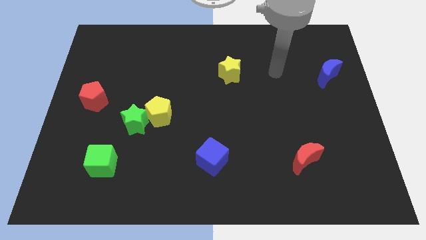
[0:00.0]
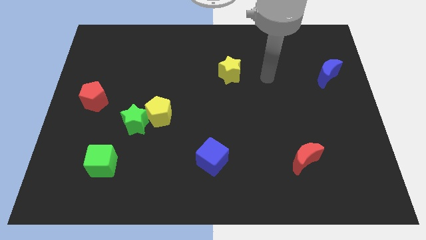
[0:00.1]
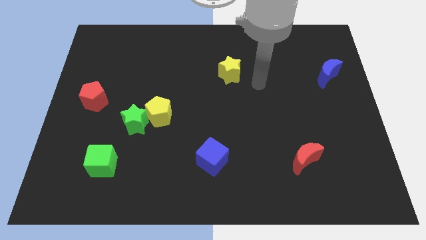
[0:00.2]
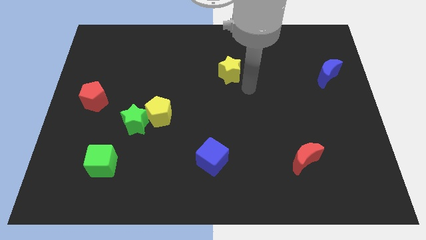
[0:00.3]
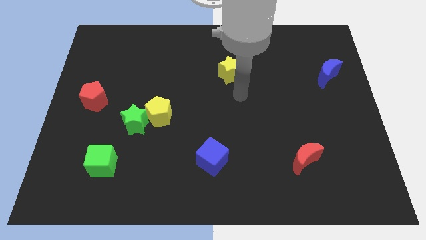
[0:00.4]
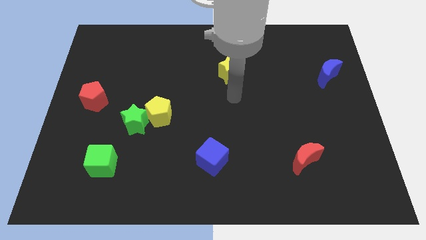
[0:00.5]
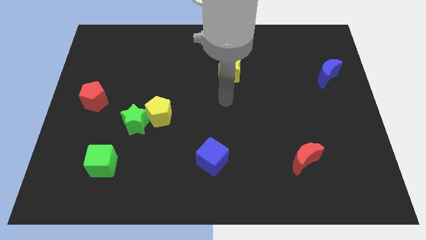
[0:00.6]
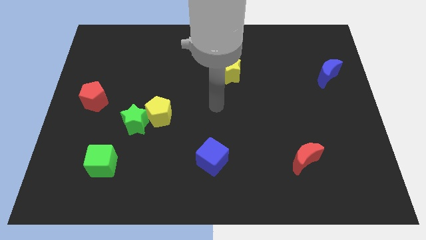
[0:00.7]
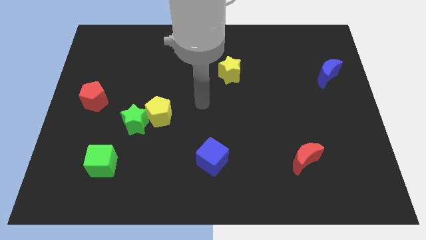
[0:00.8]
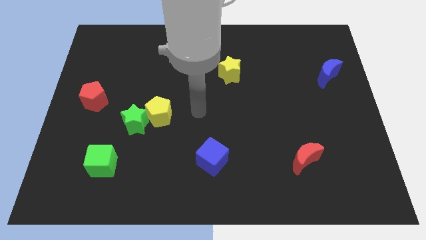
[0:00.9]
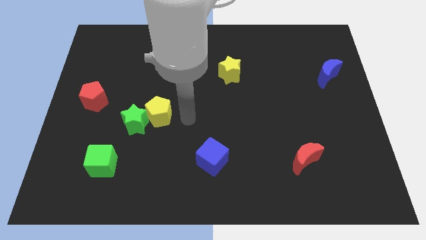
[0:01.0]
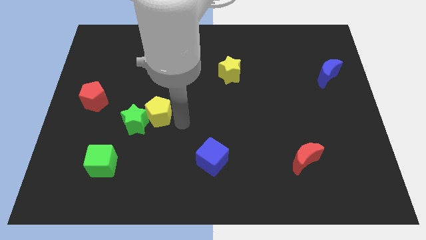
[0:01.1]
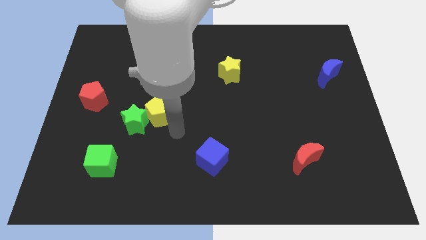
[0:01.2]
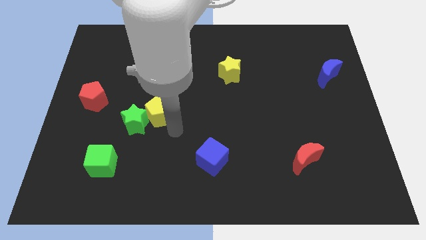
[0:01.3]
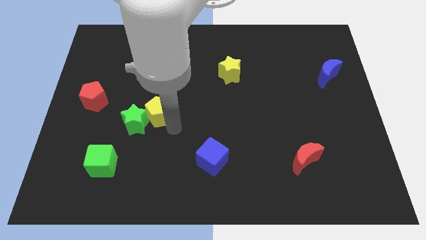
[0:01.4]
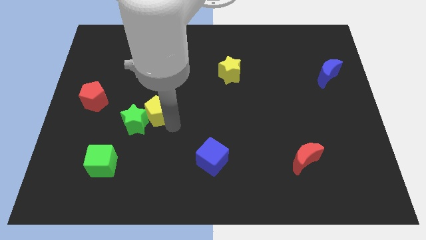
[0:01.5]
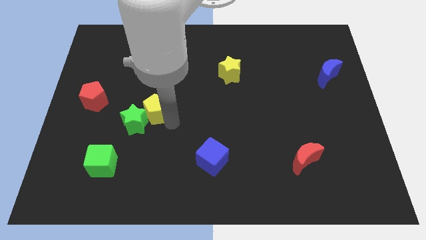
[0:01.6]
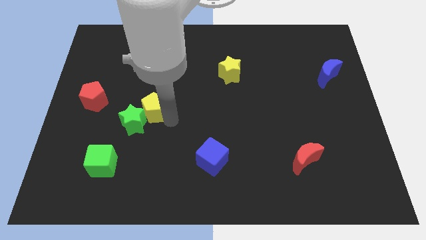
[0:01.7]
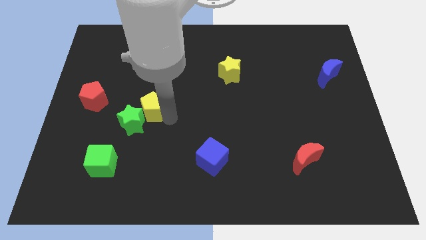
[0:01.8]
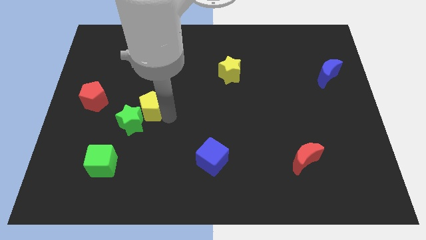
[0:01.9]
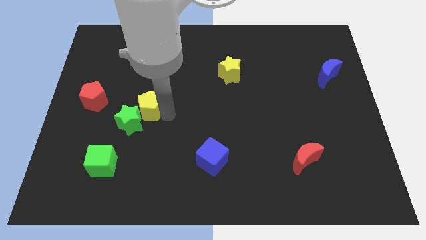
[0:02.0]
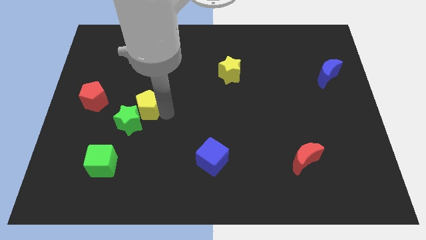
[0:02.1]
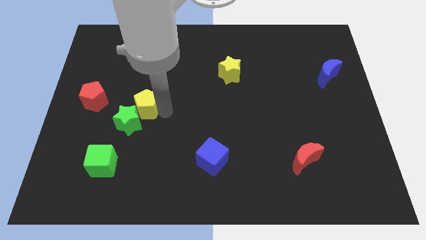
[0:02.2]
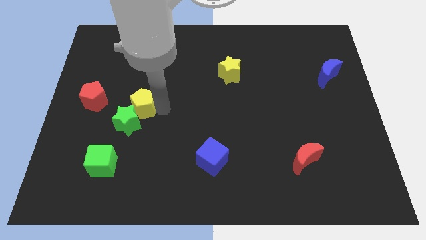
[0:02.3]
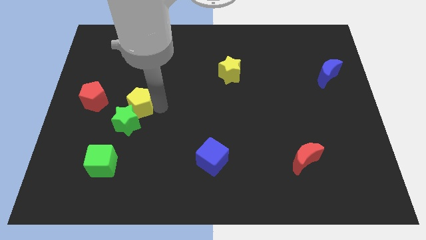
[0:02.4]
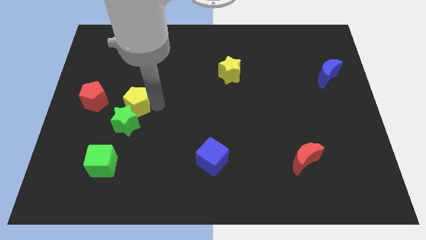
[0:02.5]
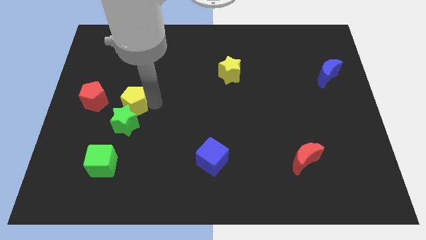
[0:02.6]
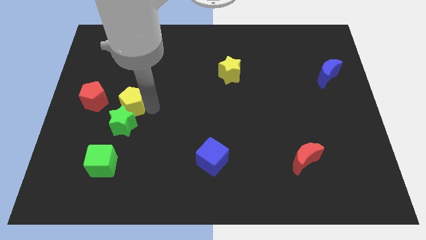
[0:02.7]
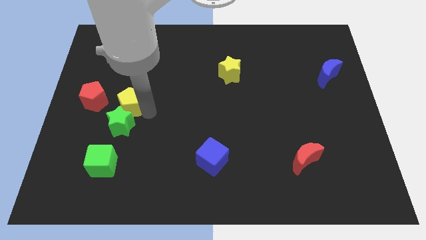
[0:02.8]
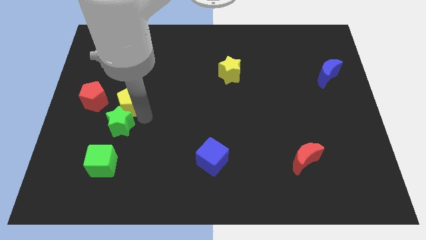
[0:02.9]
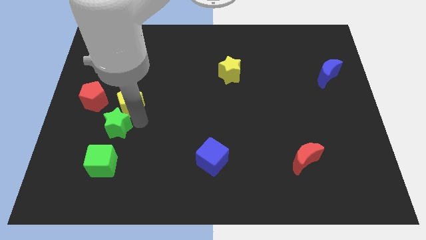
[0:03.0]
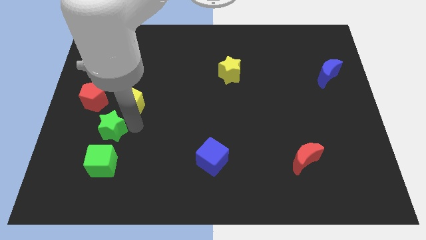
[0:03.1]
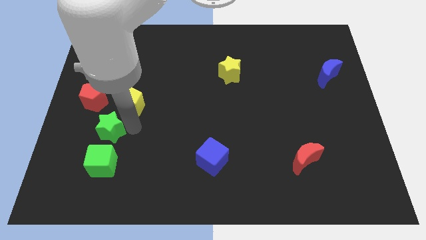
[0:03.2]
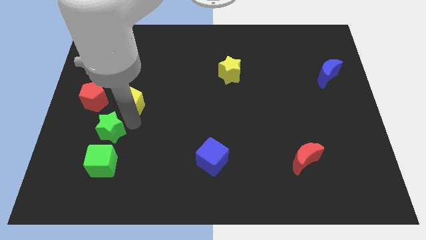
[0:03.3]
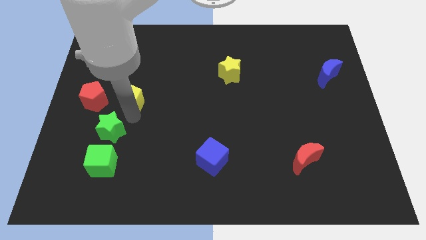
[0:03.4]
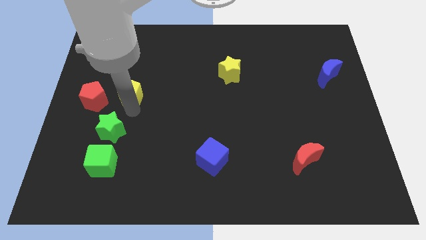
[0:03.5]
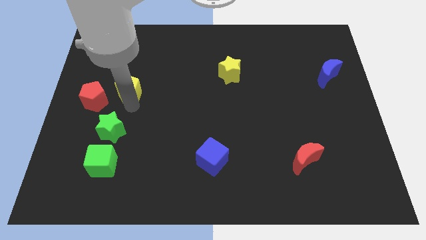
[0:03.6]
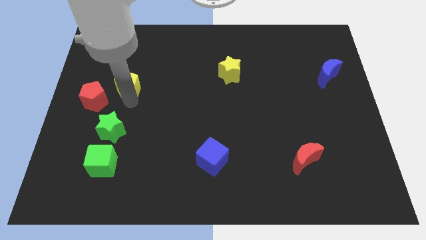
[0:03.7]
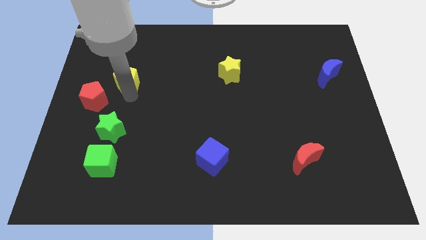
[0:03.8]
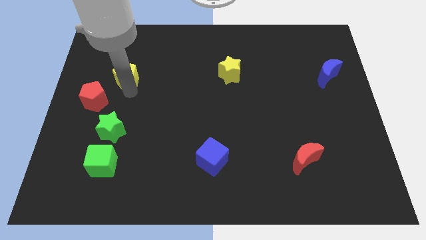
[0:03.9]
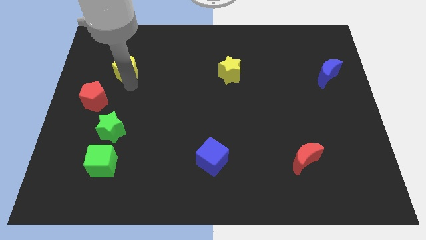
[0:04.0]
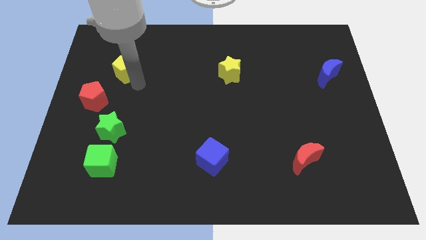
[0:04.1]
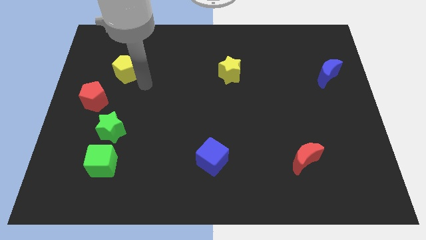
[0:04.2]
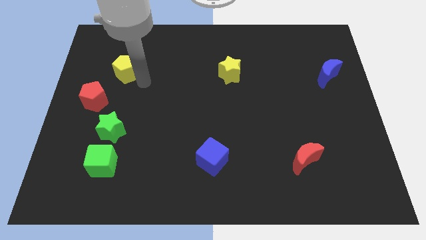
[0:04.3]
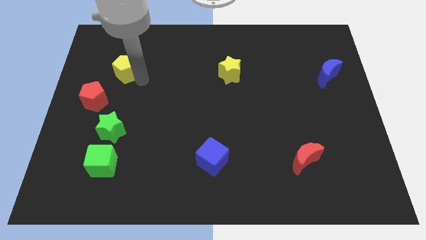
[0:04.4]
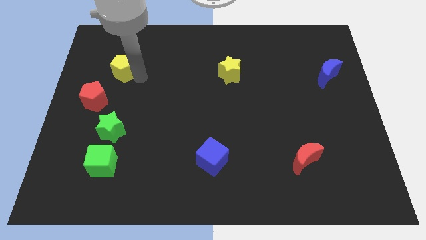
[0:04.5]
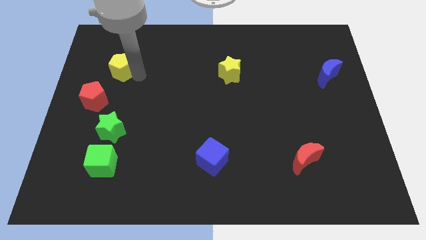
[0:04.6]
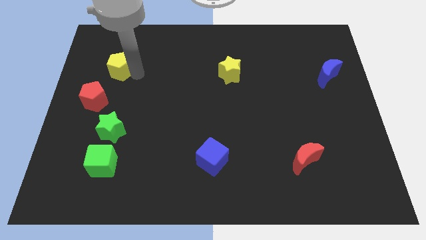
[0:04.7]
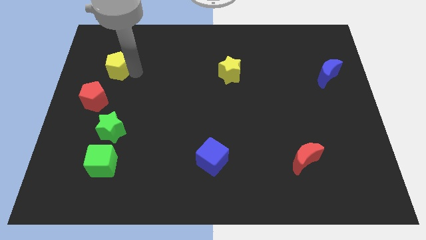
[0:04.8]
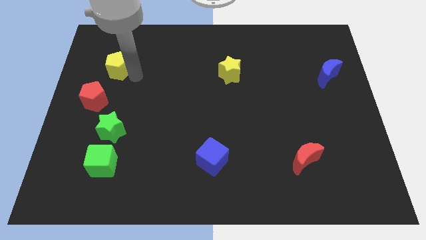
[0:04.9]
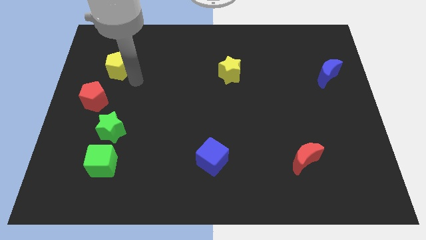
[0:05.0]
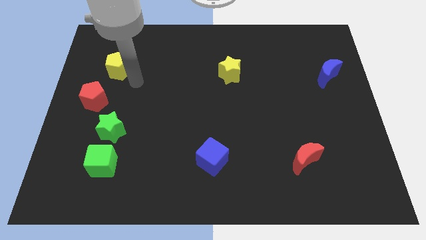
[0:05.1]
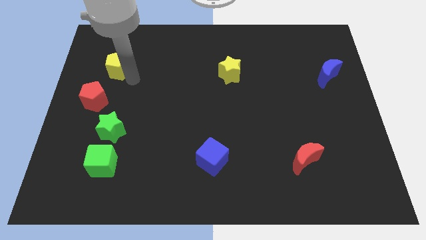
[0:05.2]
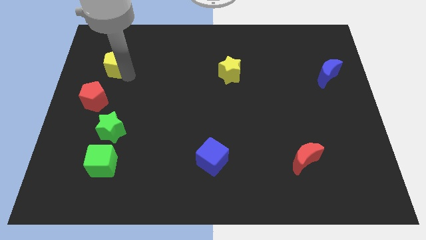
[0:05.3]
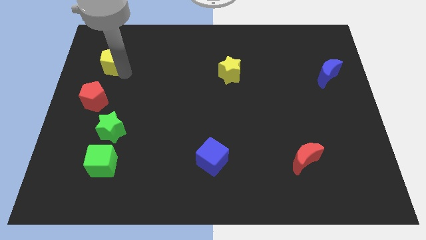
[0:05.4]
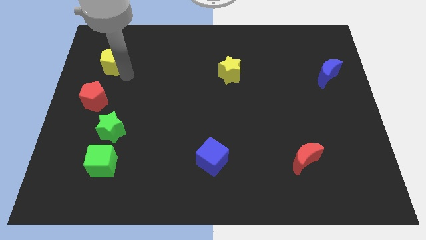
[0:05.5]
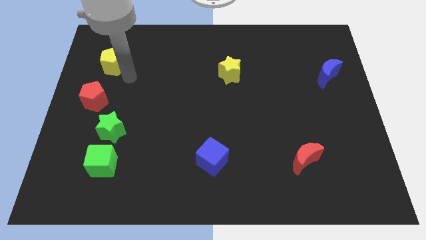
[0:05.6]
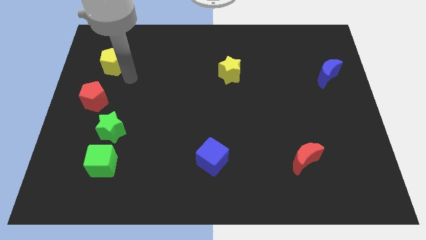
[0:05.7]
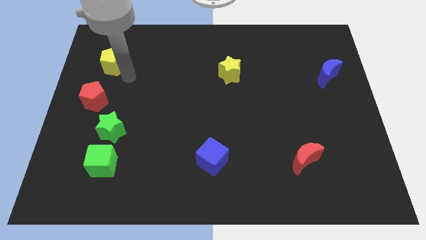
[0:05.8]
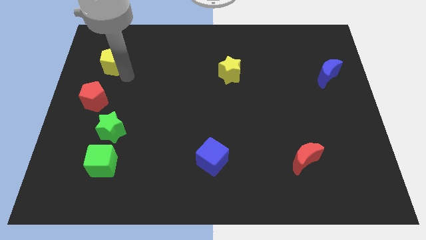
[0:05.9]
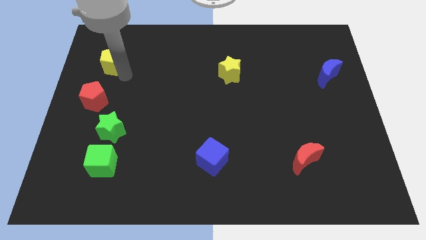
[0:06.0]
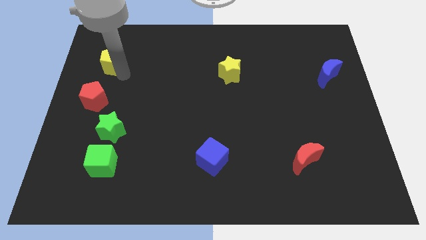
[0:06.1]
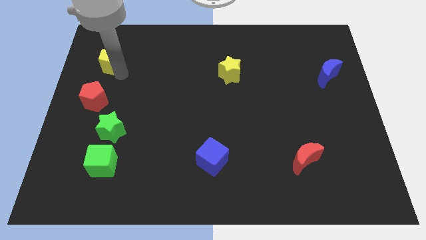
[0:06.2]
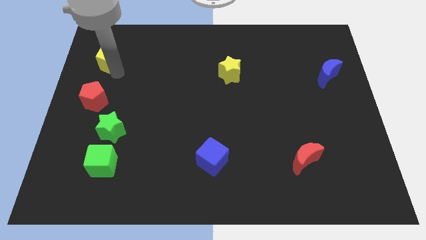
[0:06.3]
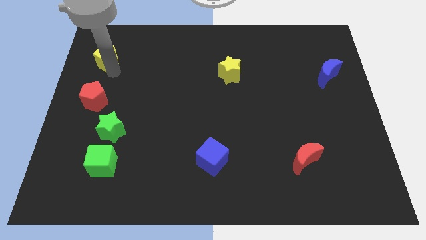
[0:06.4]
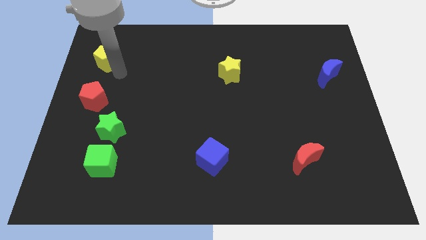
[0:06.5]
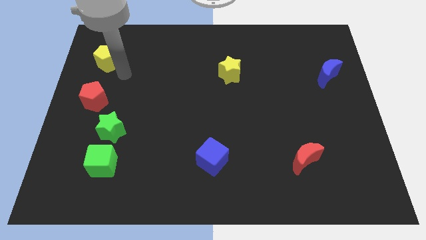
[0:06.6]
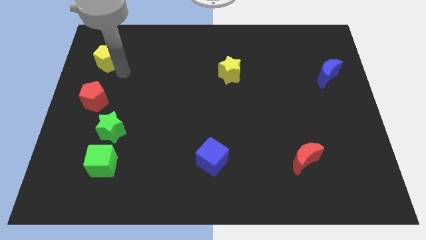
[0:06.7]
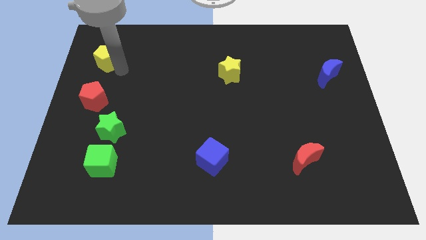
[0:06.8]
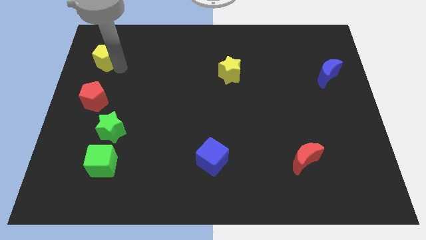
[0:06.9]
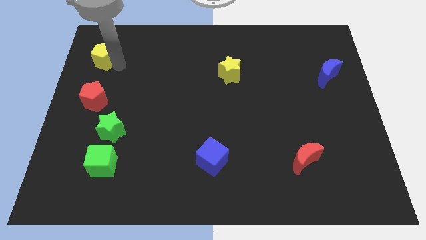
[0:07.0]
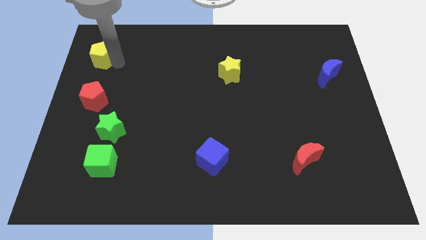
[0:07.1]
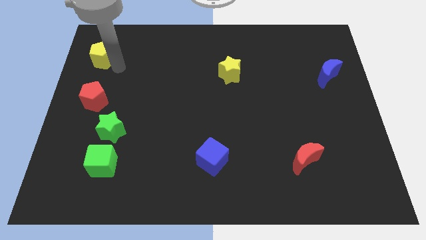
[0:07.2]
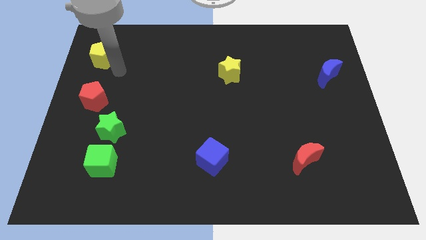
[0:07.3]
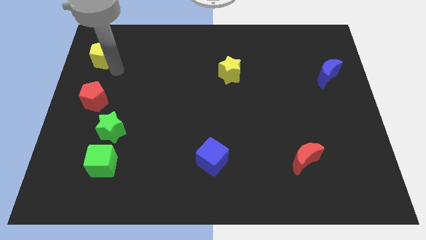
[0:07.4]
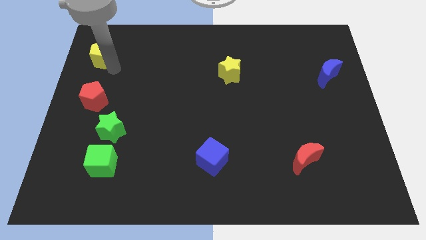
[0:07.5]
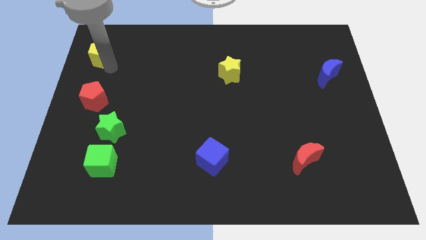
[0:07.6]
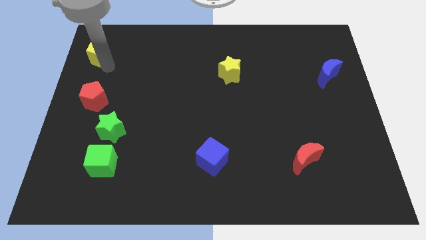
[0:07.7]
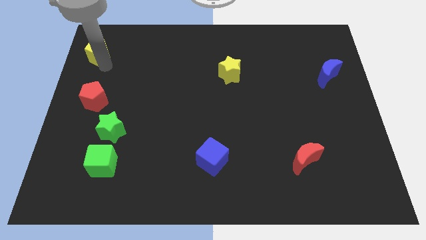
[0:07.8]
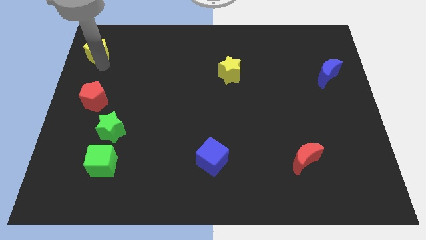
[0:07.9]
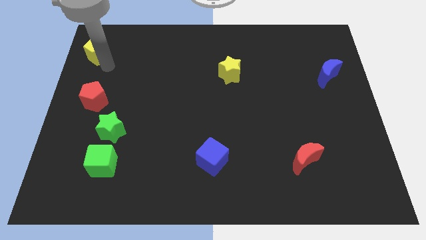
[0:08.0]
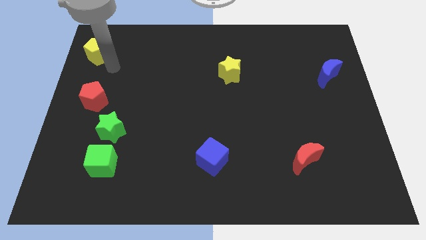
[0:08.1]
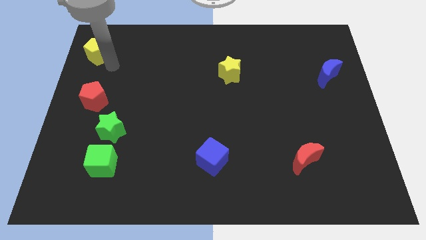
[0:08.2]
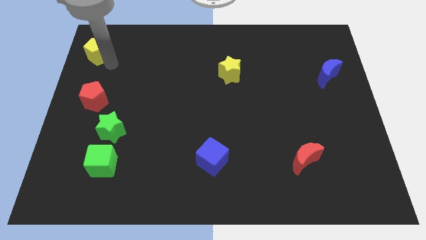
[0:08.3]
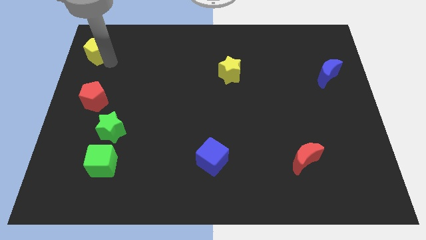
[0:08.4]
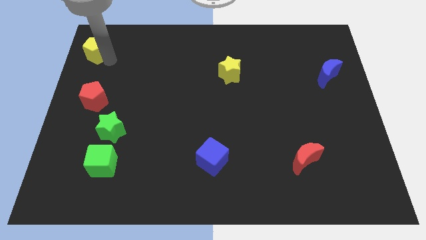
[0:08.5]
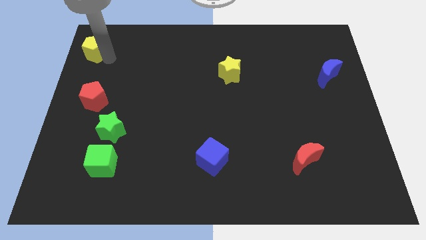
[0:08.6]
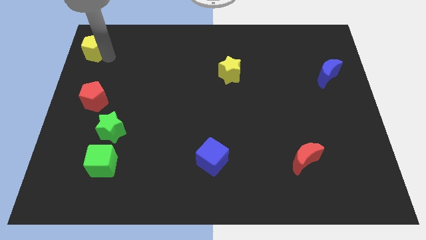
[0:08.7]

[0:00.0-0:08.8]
put the yellow pentagon to the upper left corner
